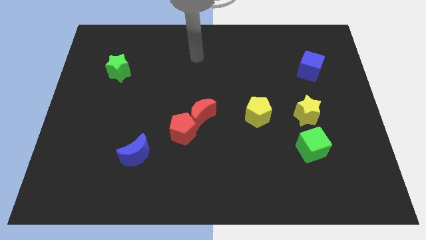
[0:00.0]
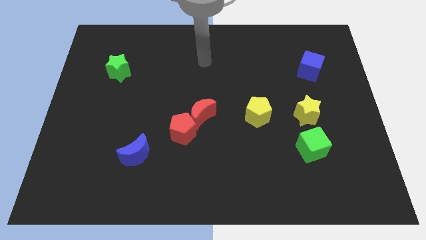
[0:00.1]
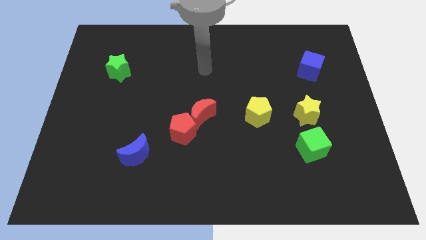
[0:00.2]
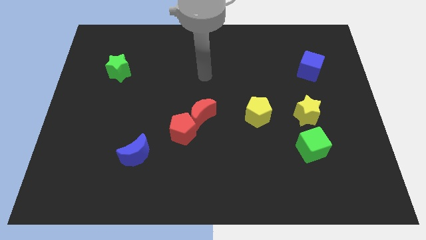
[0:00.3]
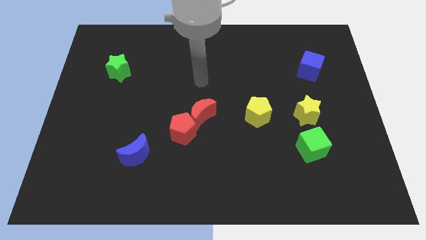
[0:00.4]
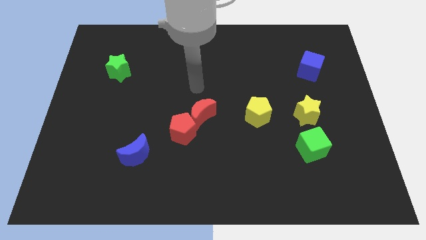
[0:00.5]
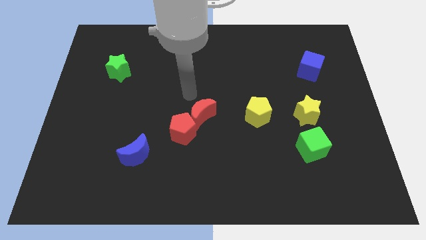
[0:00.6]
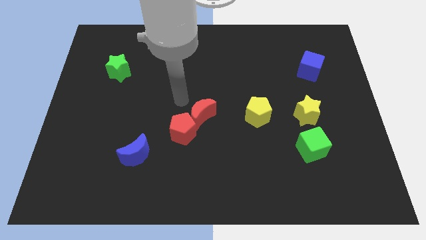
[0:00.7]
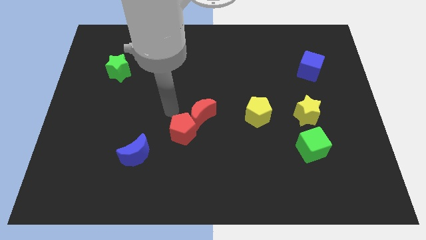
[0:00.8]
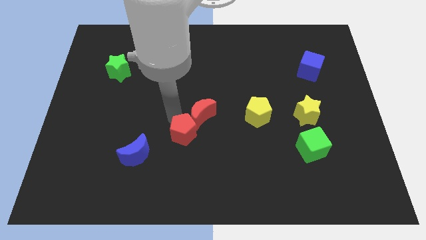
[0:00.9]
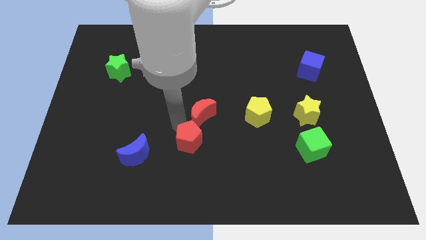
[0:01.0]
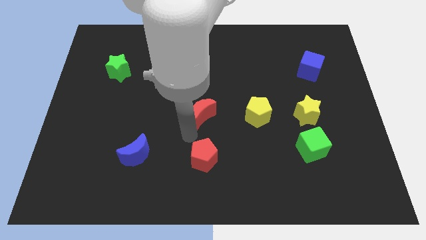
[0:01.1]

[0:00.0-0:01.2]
pull the red moon apart from the red pentagon

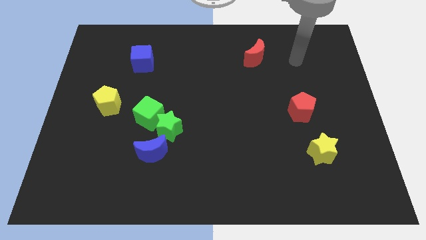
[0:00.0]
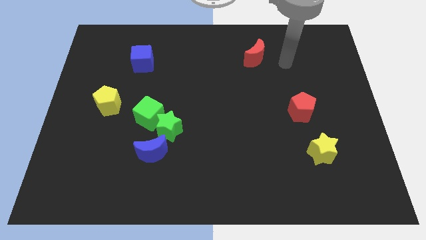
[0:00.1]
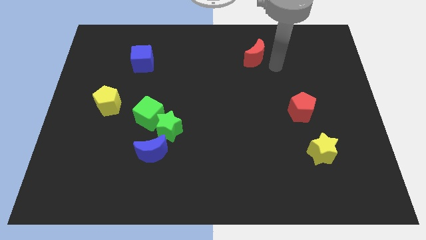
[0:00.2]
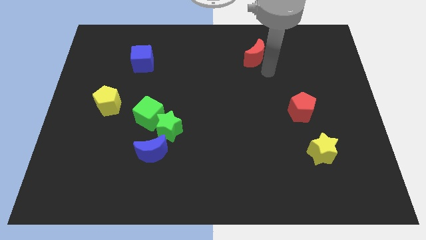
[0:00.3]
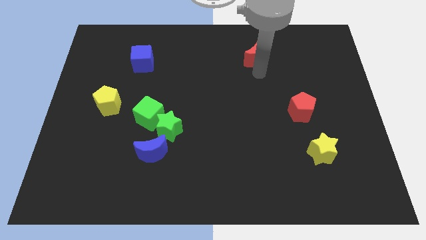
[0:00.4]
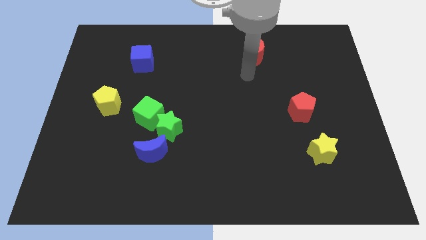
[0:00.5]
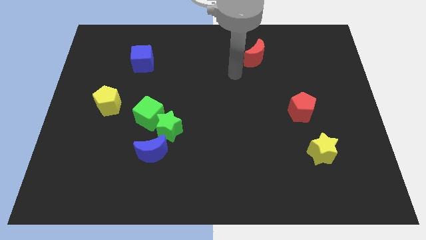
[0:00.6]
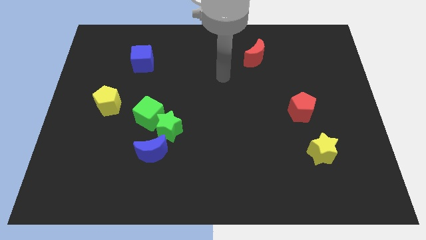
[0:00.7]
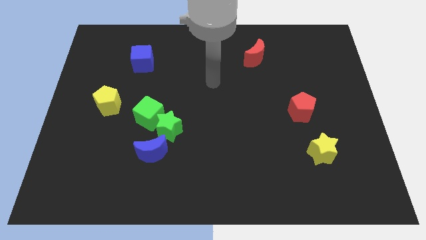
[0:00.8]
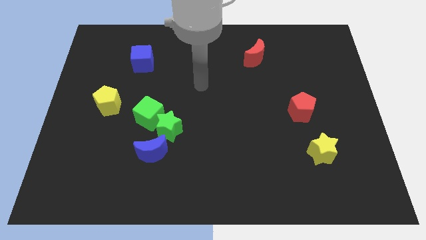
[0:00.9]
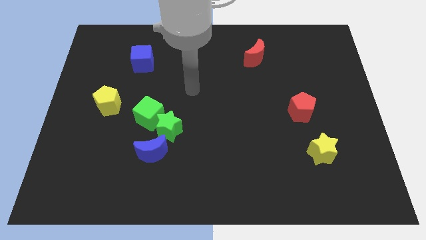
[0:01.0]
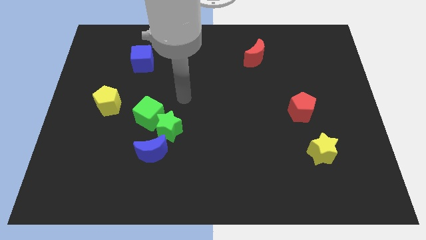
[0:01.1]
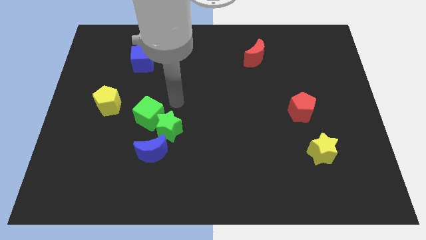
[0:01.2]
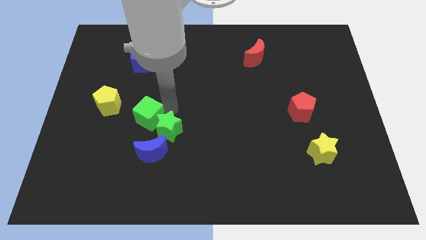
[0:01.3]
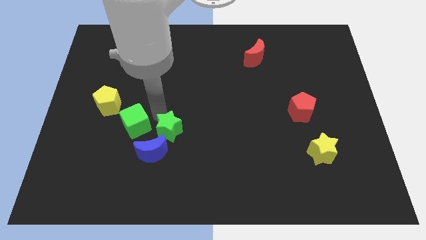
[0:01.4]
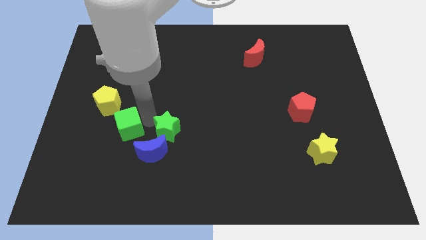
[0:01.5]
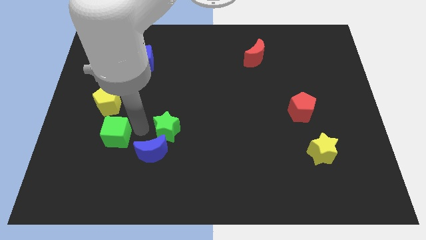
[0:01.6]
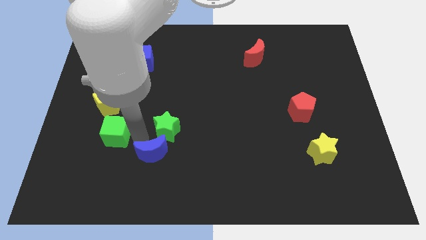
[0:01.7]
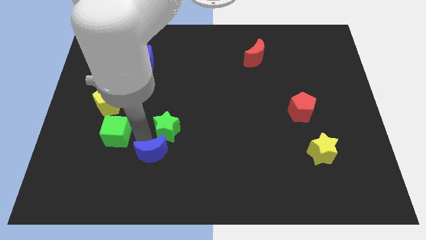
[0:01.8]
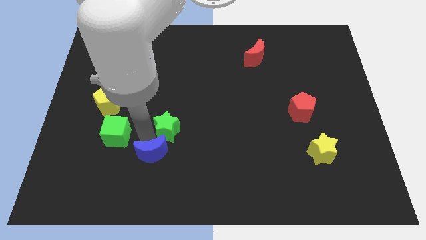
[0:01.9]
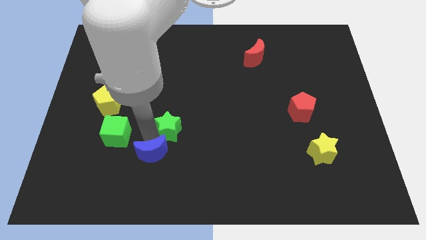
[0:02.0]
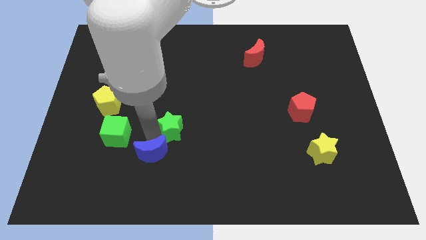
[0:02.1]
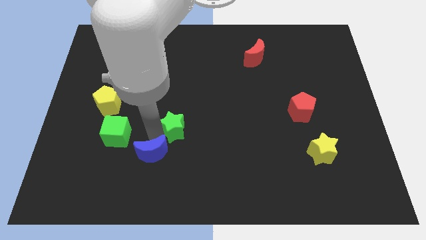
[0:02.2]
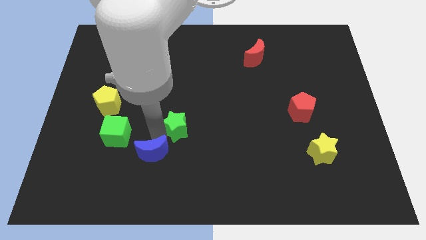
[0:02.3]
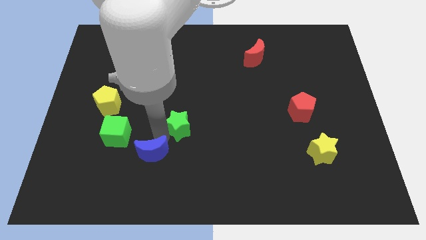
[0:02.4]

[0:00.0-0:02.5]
pull the green star apart from the green cube and blue moon

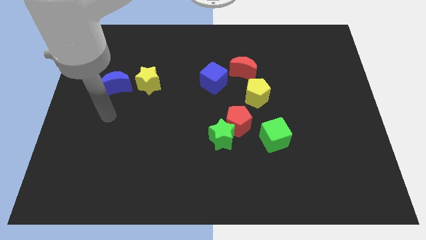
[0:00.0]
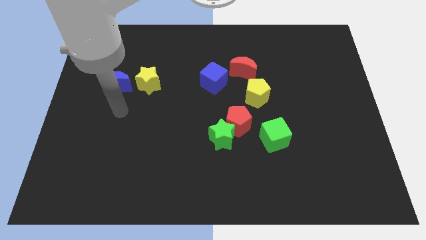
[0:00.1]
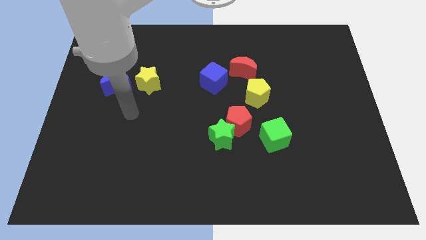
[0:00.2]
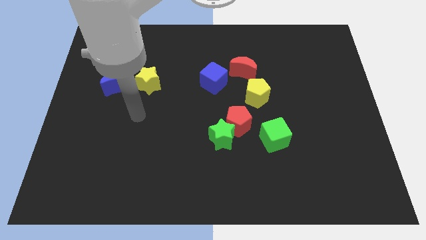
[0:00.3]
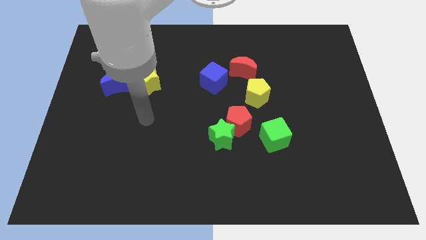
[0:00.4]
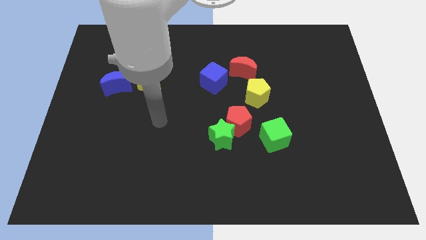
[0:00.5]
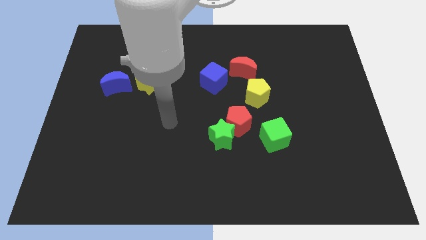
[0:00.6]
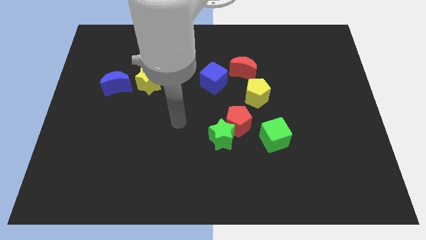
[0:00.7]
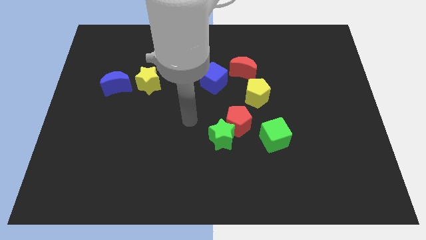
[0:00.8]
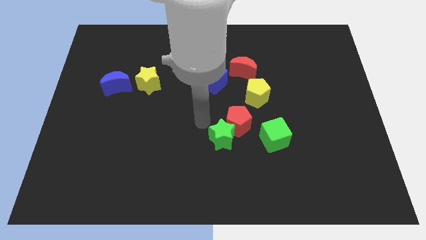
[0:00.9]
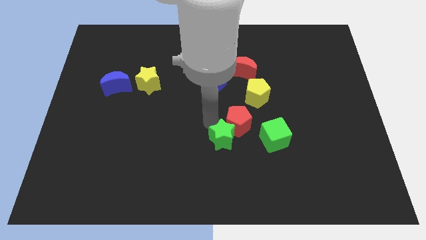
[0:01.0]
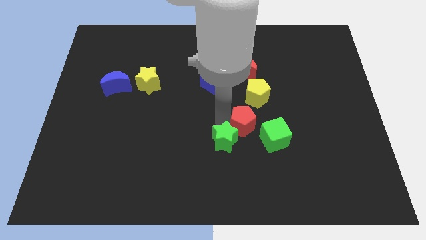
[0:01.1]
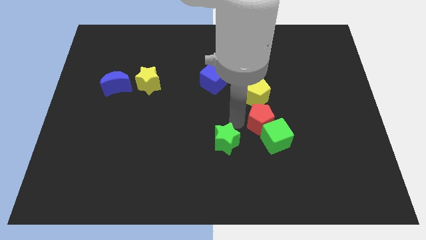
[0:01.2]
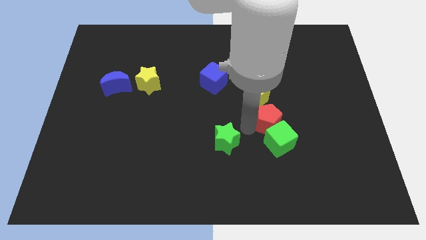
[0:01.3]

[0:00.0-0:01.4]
pull the green star apart from the red pentagon

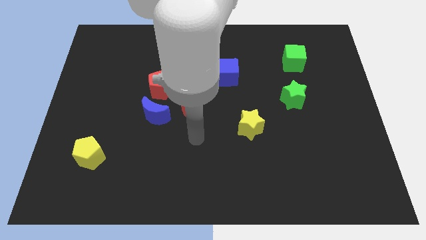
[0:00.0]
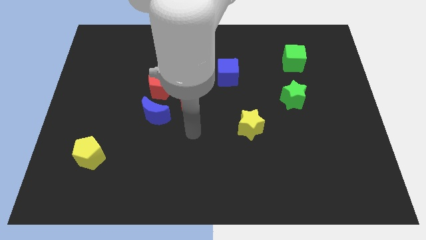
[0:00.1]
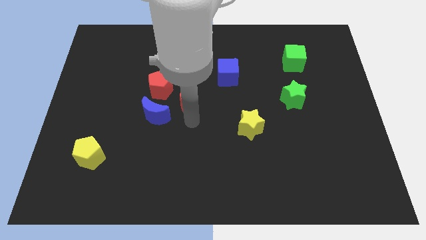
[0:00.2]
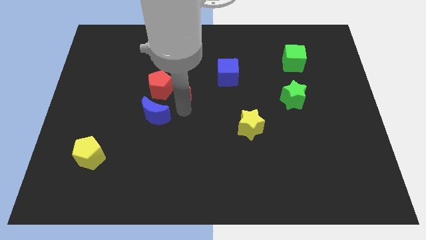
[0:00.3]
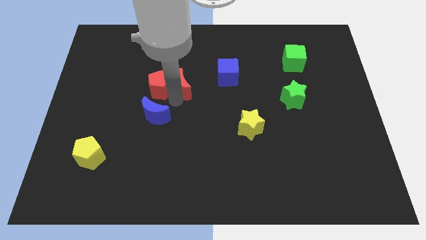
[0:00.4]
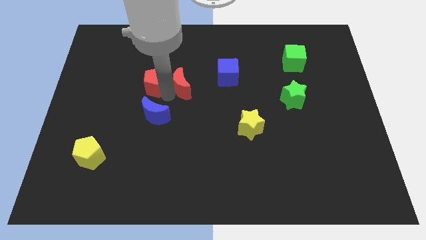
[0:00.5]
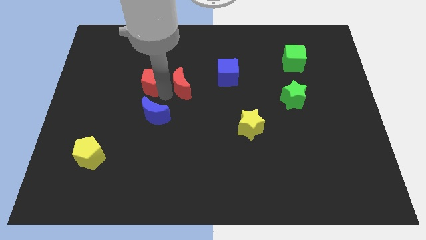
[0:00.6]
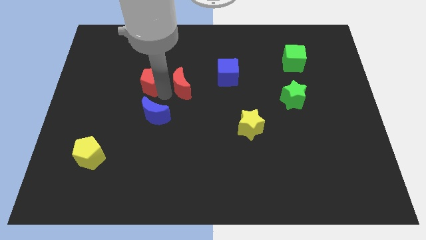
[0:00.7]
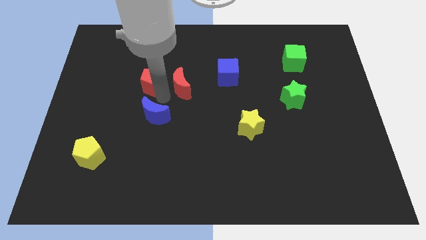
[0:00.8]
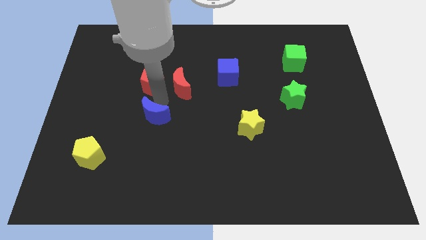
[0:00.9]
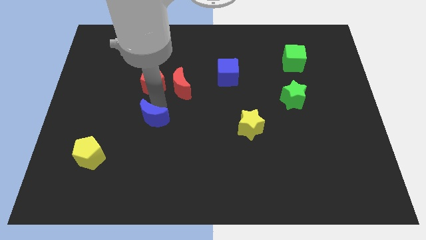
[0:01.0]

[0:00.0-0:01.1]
separate the blue moon from the red pentagon and red moon

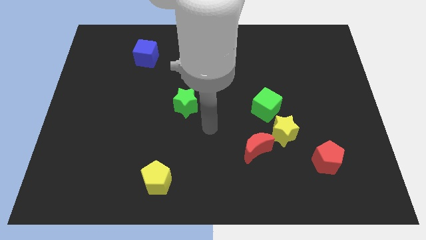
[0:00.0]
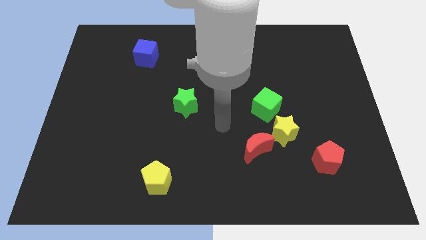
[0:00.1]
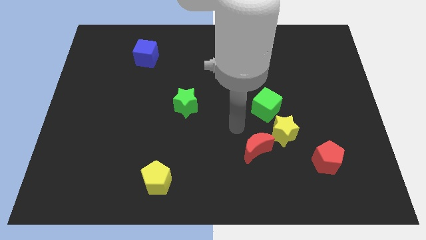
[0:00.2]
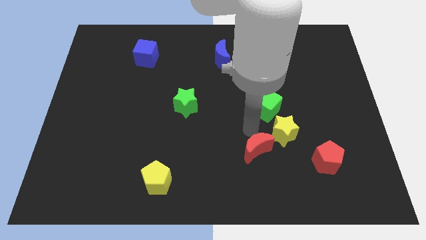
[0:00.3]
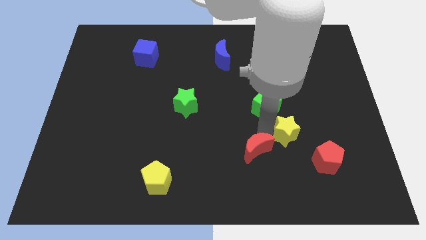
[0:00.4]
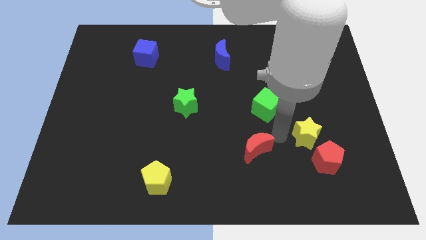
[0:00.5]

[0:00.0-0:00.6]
separate the red moon from the yellow star

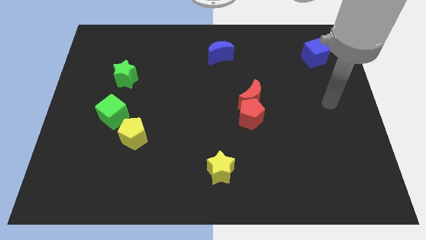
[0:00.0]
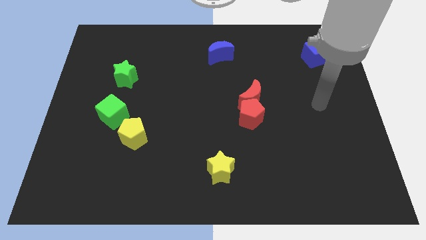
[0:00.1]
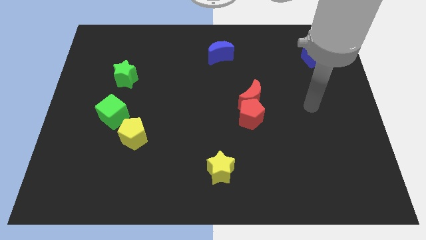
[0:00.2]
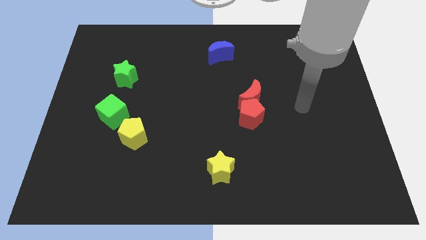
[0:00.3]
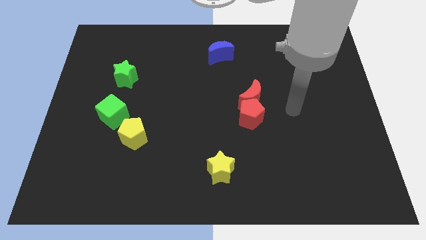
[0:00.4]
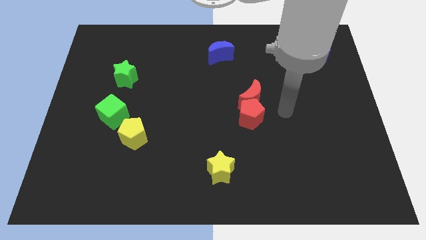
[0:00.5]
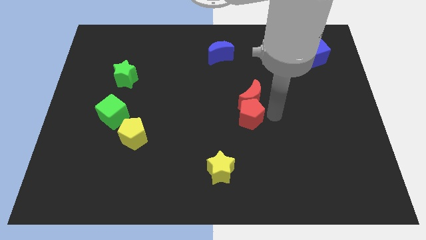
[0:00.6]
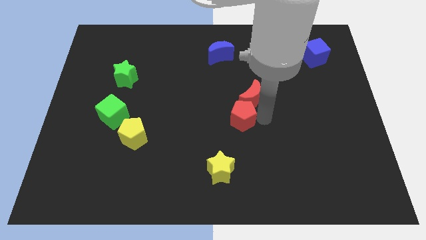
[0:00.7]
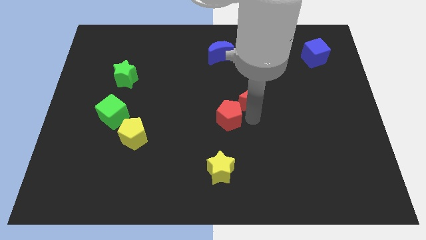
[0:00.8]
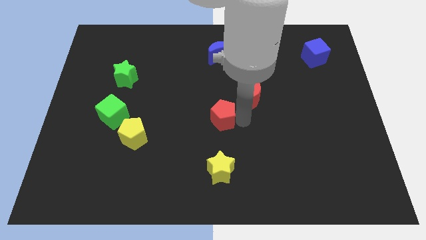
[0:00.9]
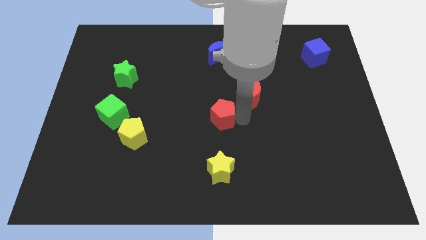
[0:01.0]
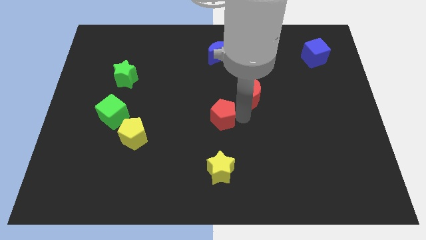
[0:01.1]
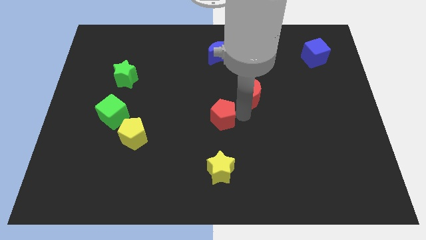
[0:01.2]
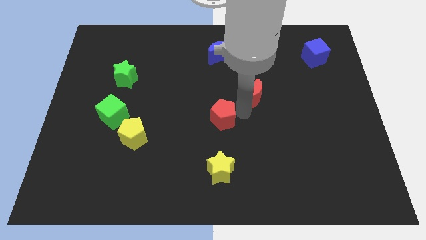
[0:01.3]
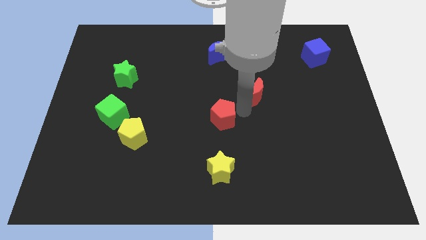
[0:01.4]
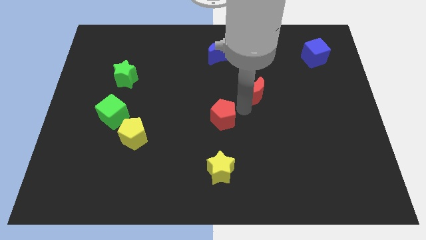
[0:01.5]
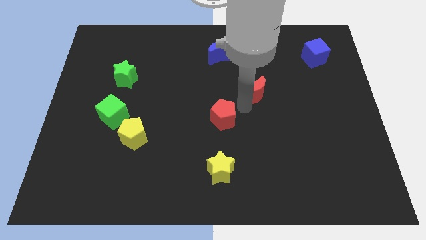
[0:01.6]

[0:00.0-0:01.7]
separate the red moon from the red pentagon

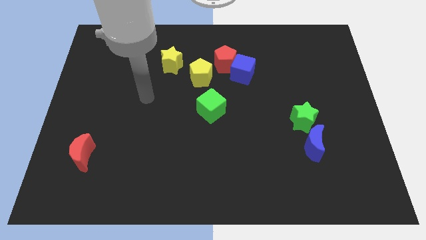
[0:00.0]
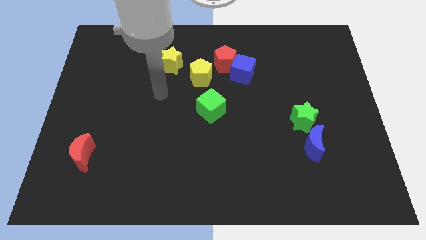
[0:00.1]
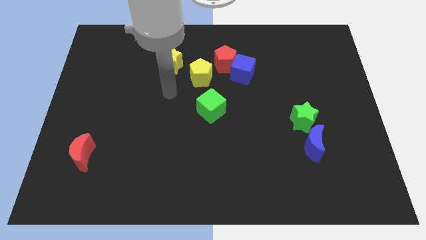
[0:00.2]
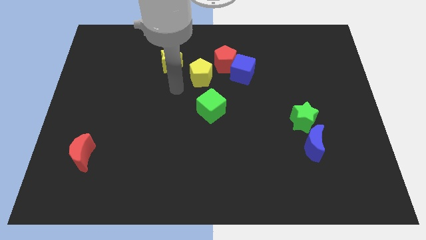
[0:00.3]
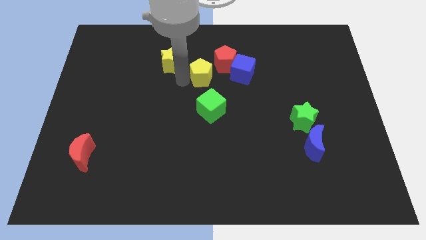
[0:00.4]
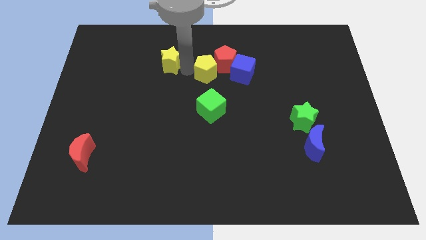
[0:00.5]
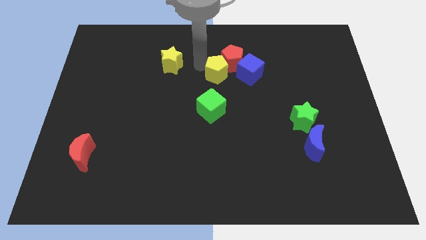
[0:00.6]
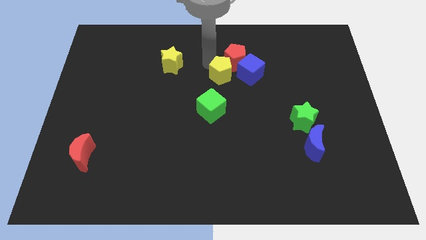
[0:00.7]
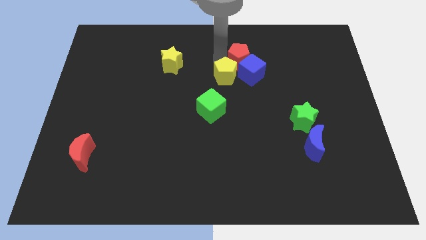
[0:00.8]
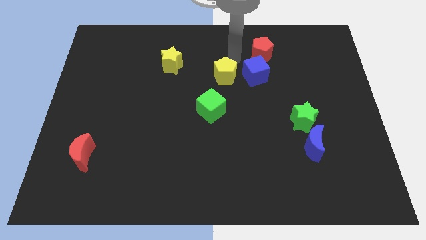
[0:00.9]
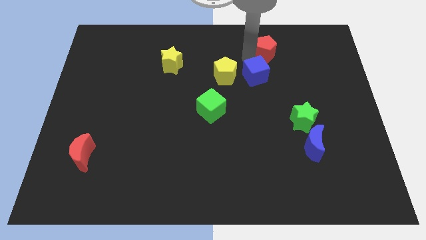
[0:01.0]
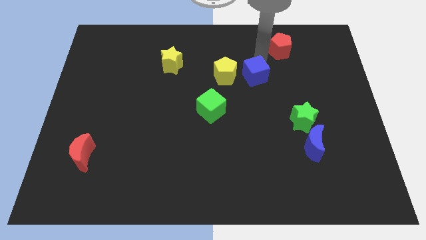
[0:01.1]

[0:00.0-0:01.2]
move the blue cube away from the red pentagon
